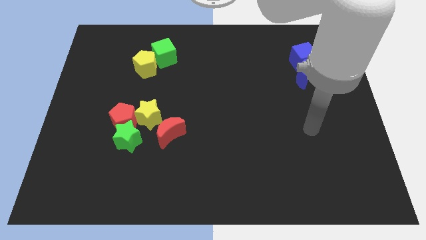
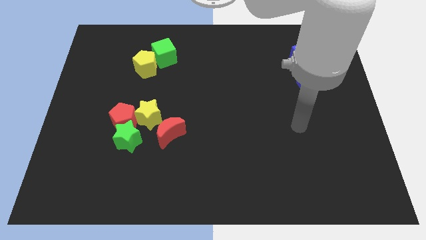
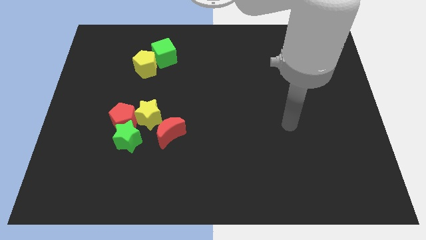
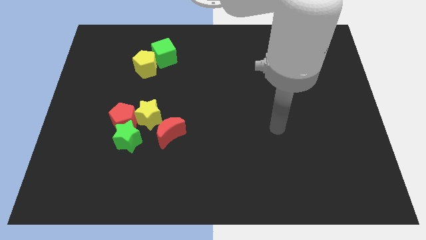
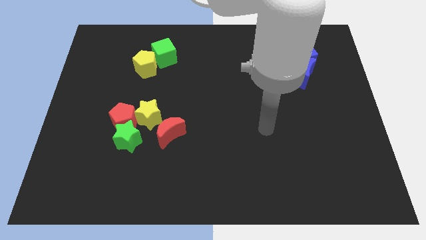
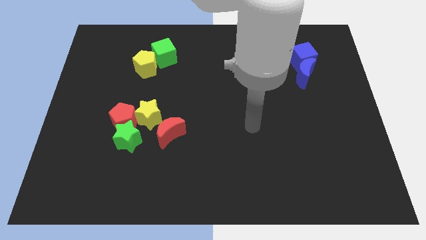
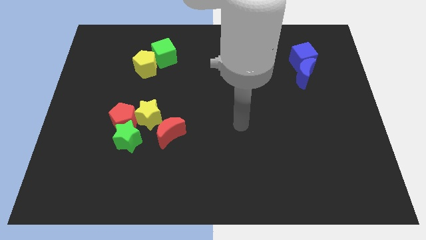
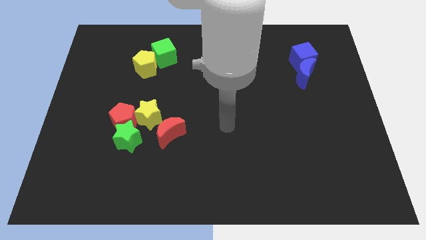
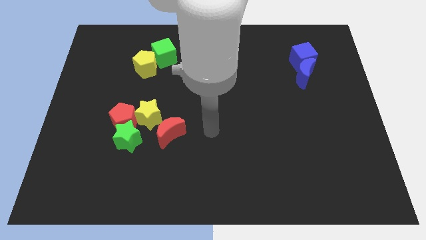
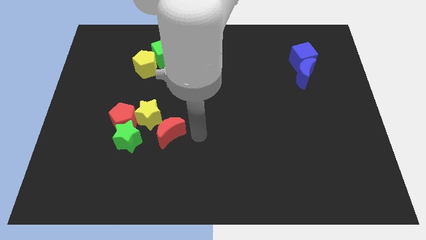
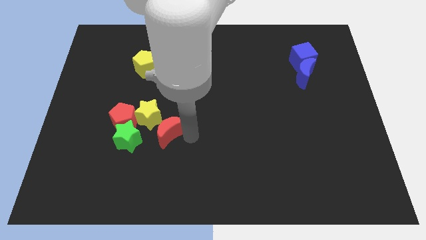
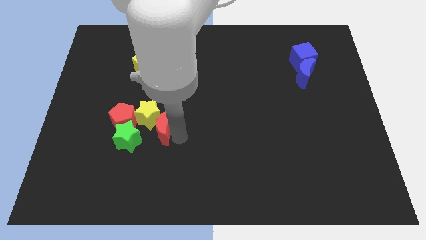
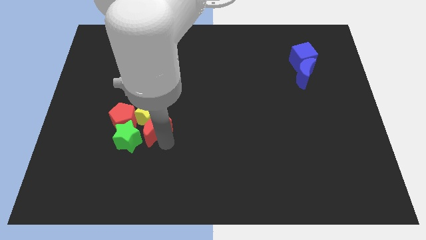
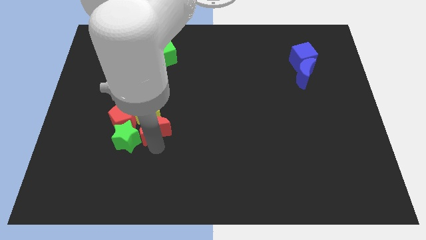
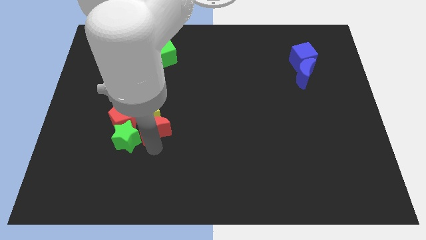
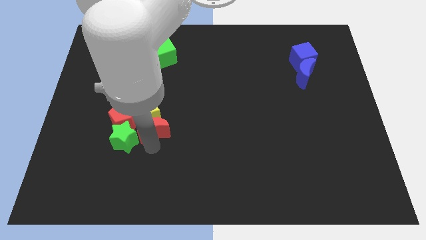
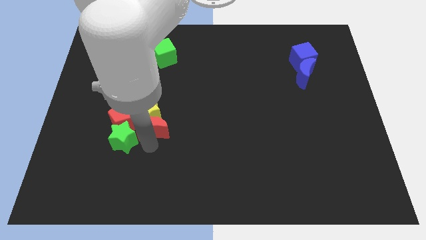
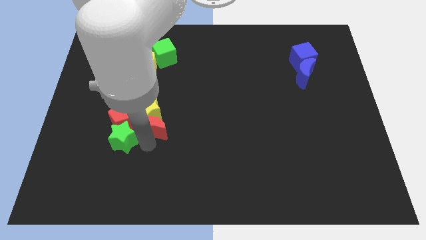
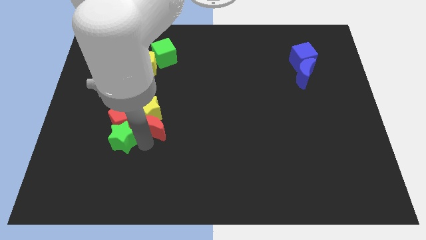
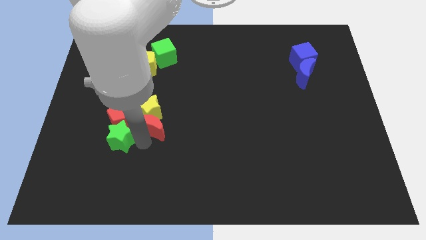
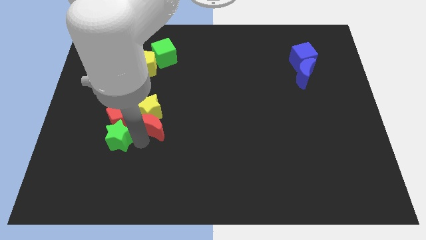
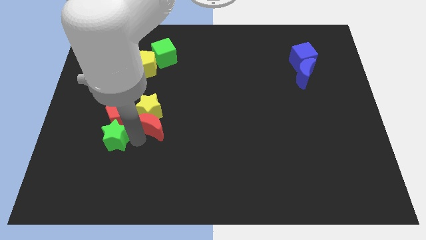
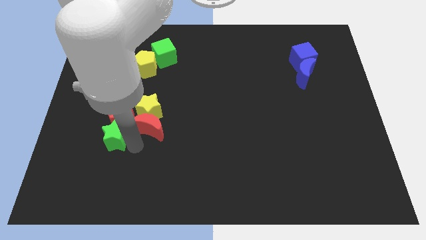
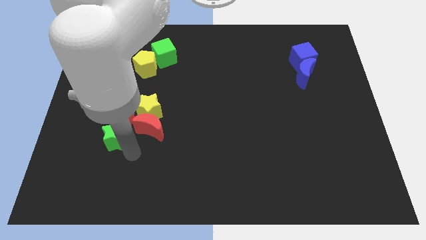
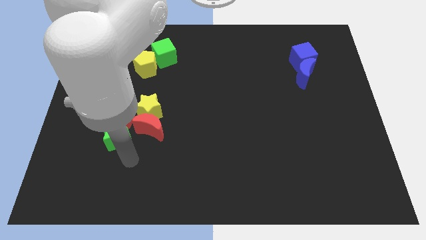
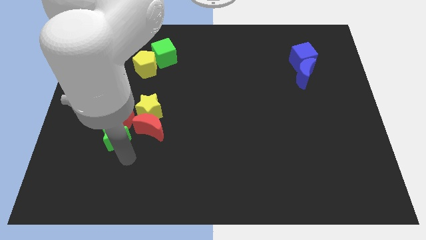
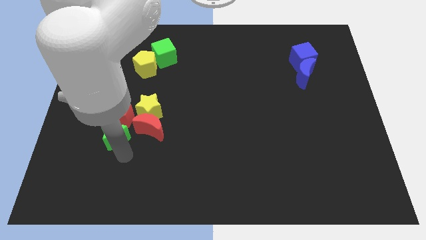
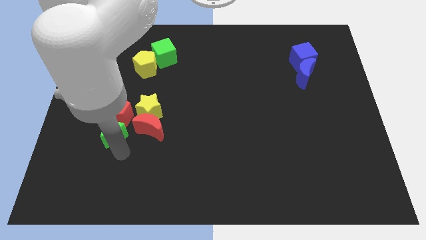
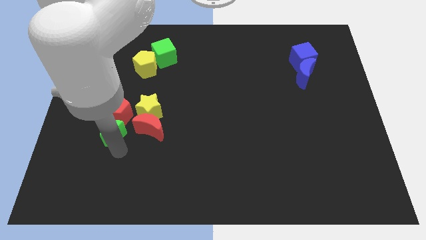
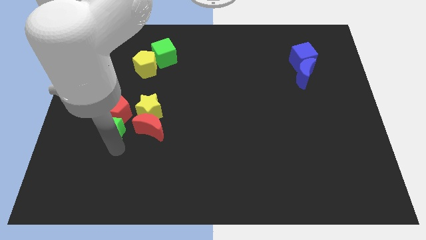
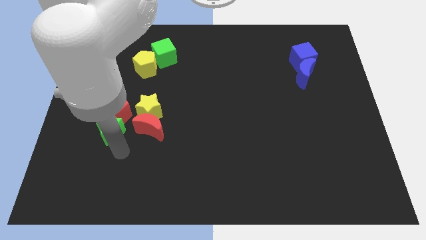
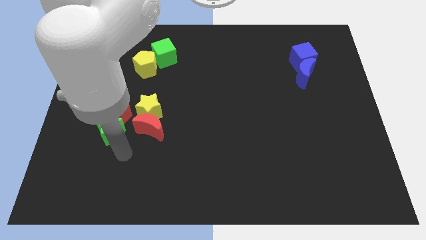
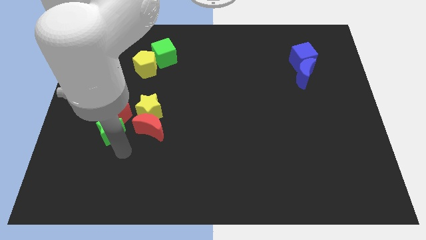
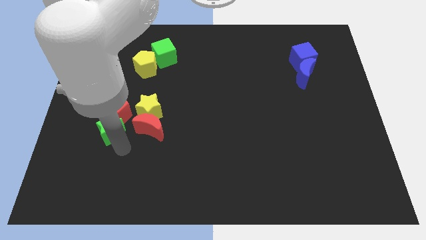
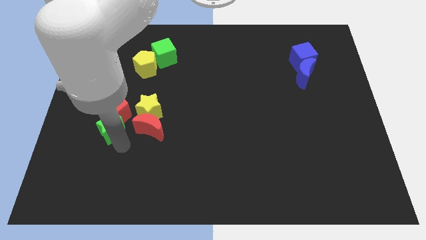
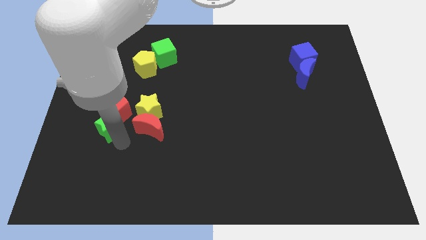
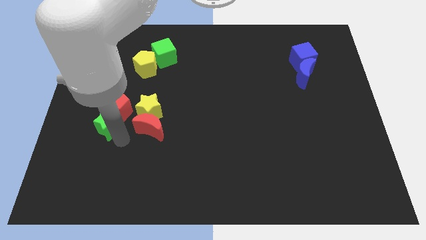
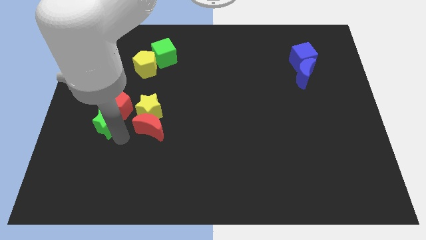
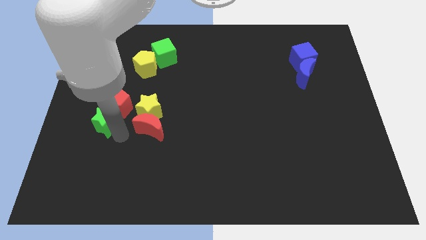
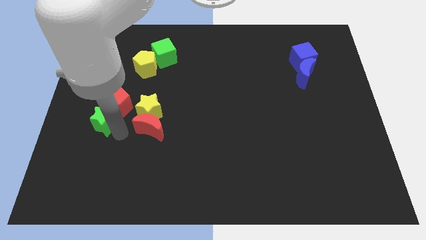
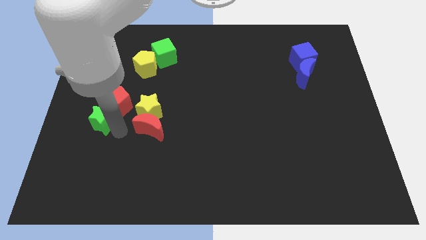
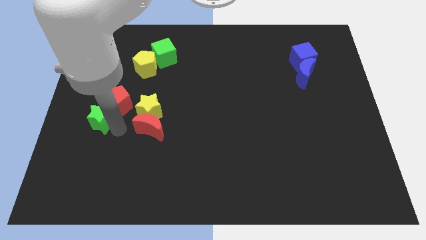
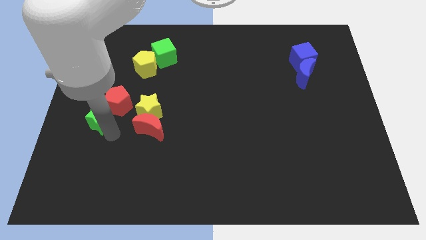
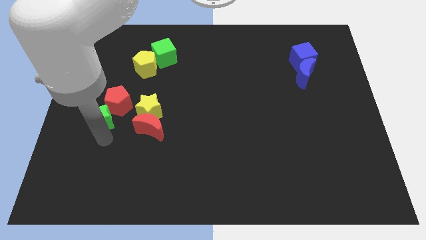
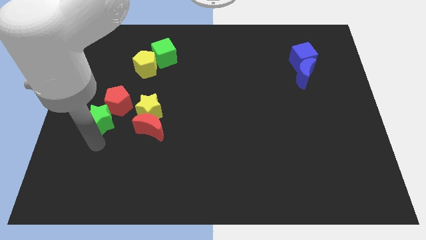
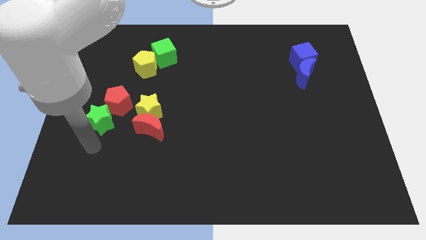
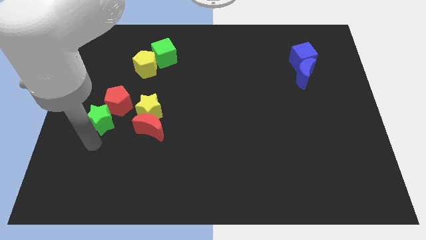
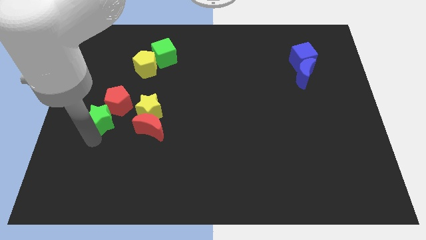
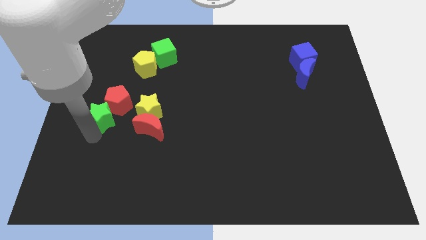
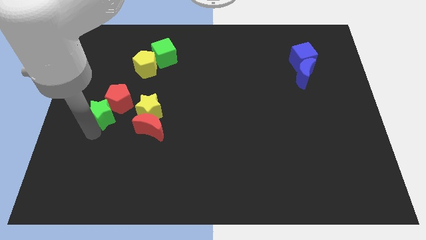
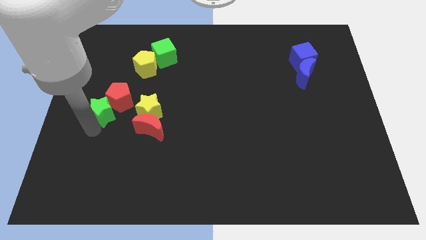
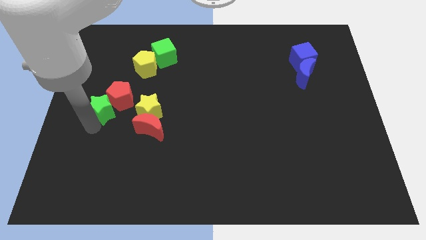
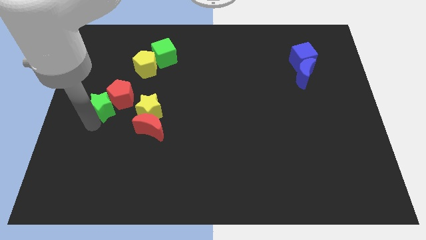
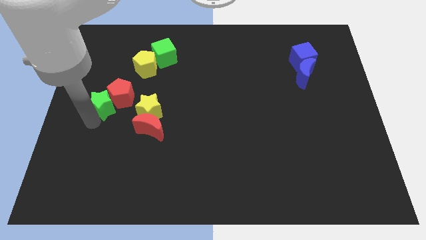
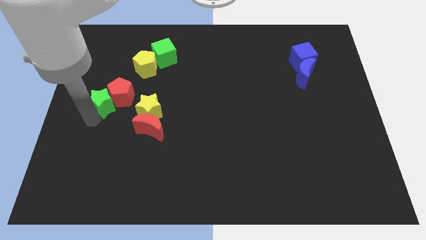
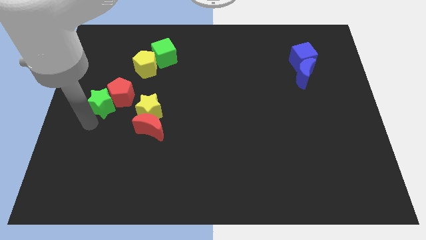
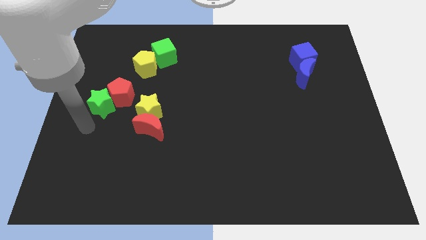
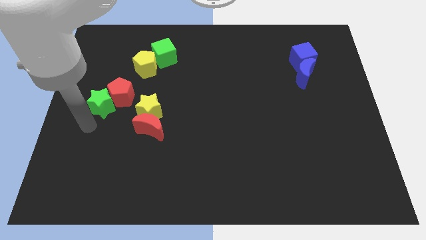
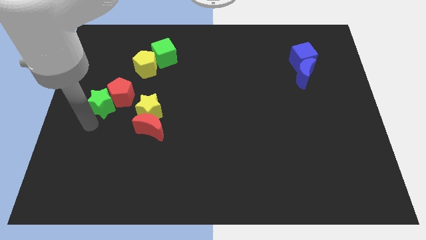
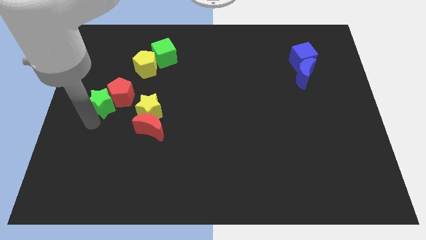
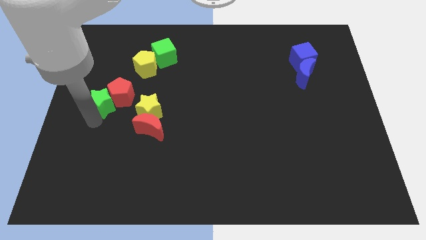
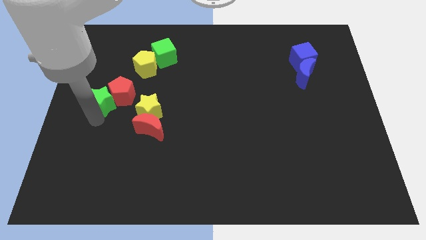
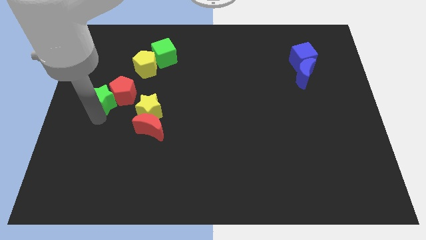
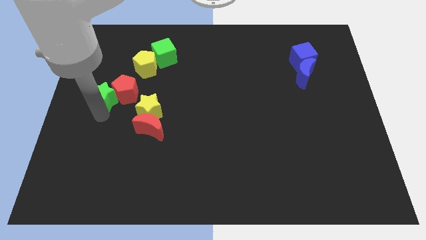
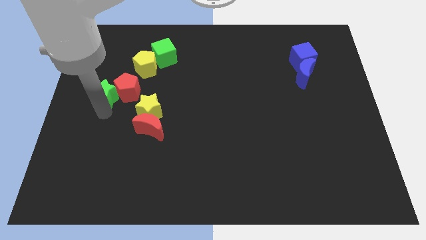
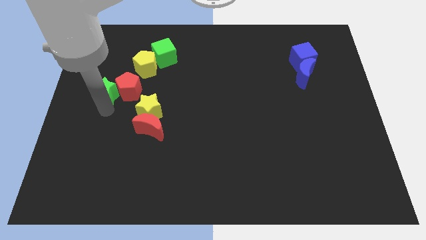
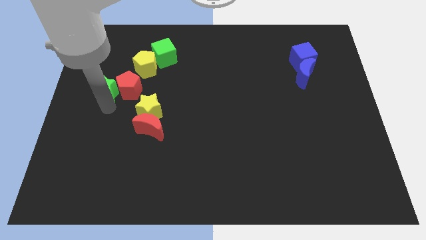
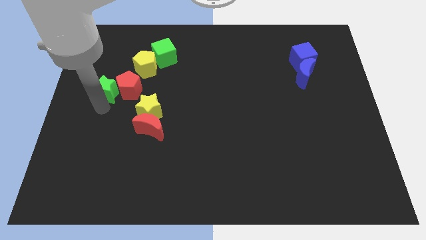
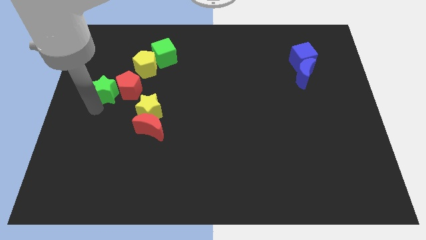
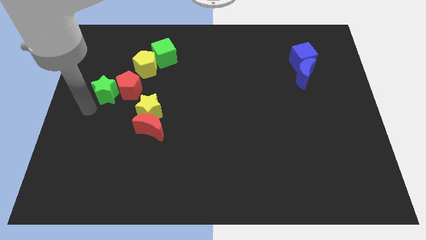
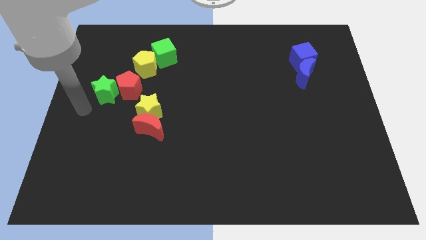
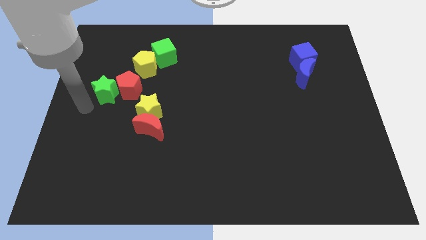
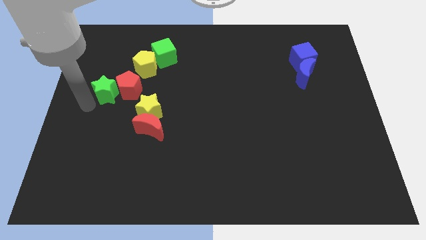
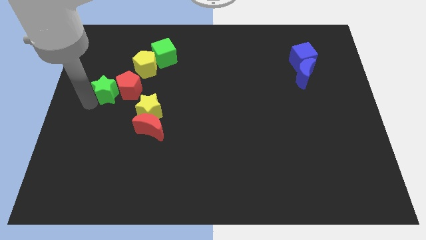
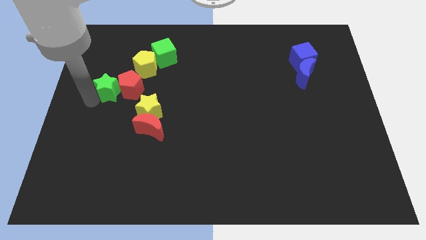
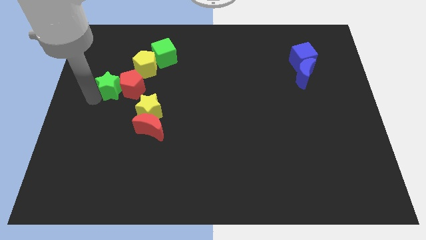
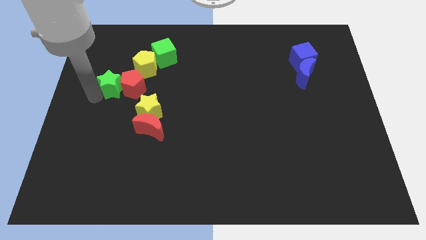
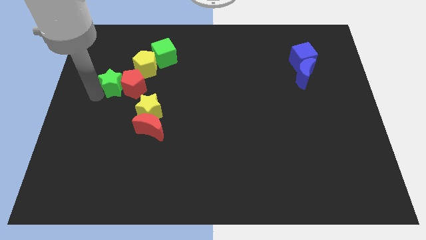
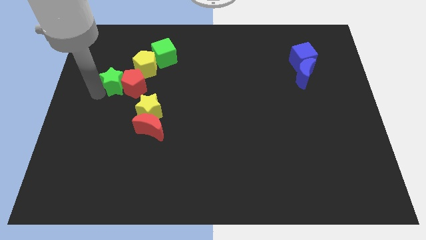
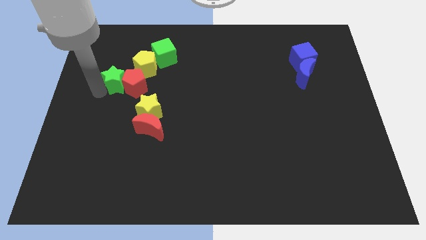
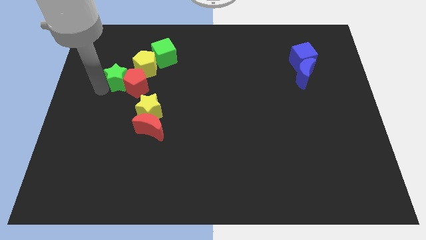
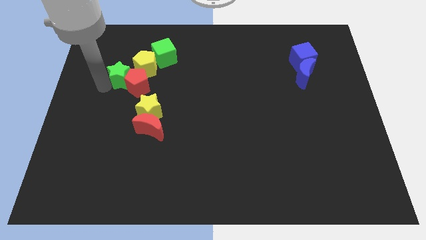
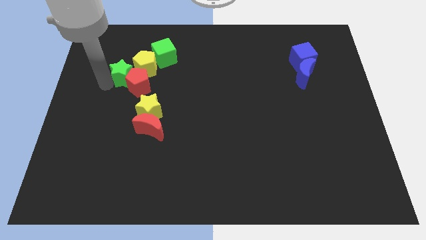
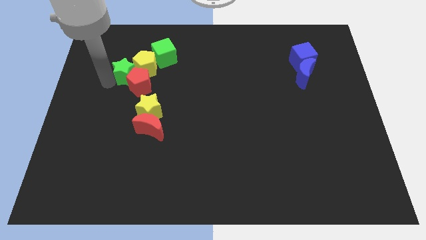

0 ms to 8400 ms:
slide the green star towards the yellow pentagon

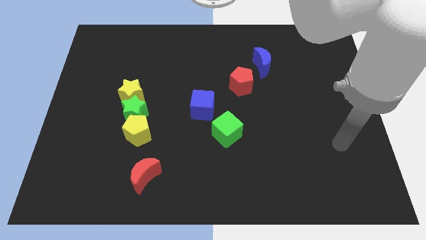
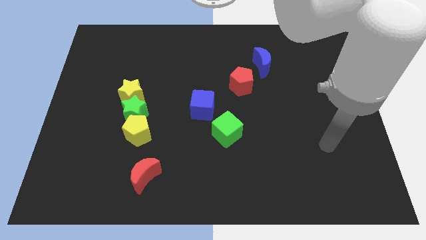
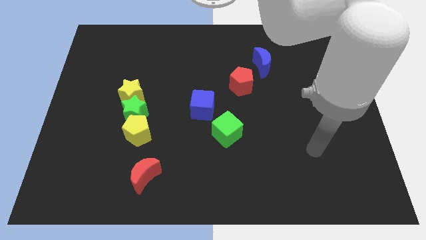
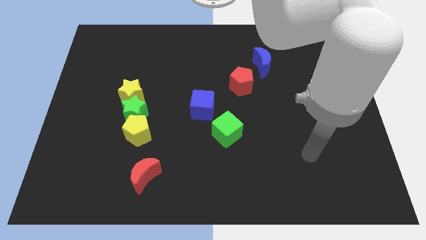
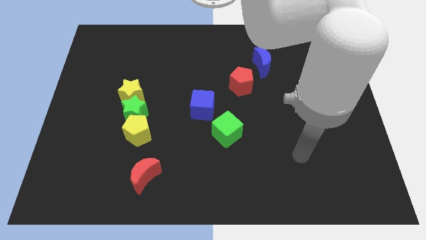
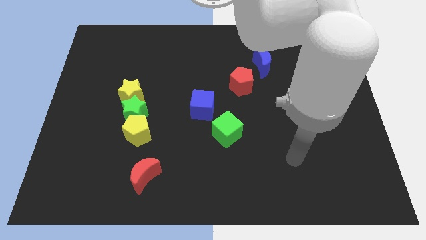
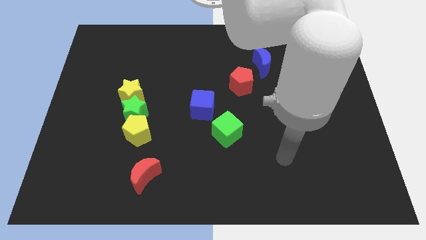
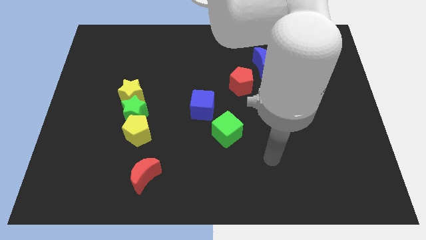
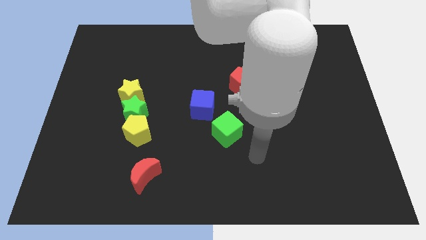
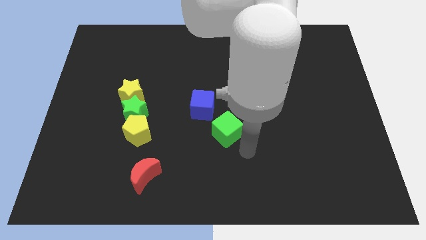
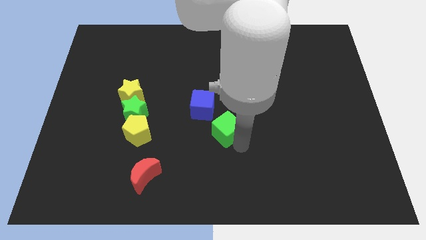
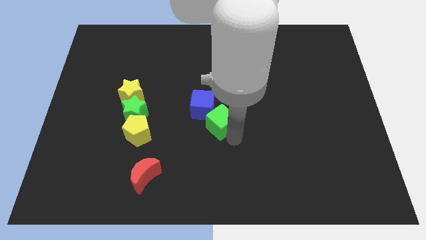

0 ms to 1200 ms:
put the green cube to the blue cube
